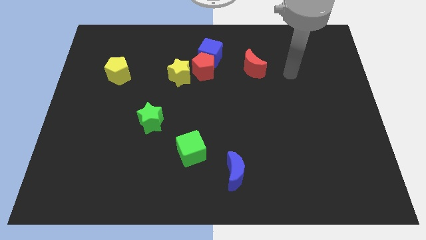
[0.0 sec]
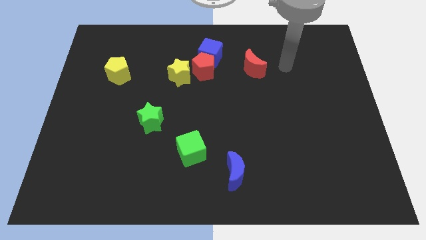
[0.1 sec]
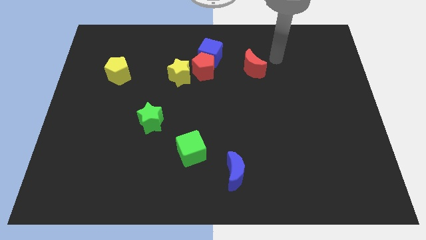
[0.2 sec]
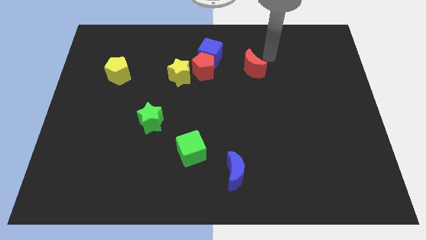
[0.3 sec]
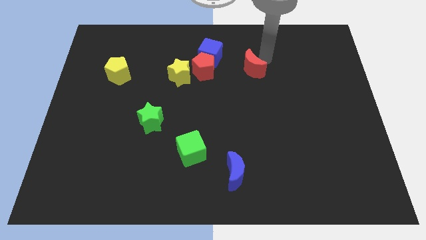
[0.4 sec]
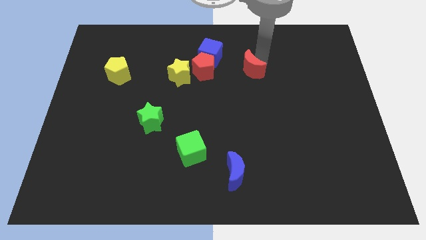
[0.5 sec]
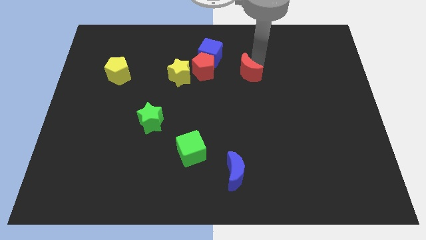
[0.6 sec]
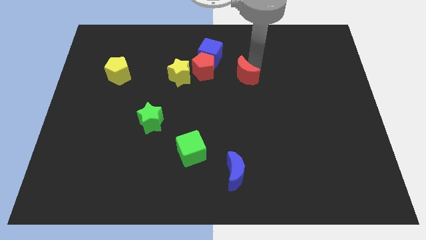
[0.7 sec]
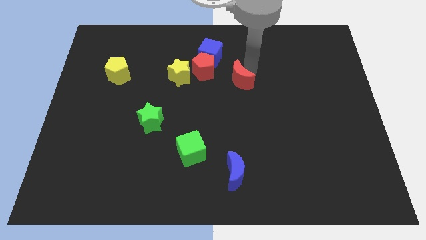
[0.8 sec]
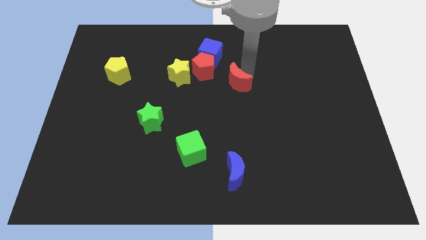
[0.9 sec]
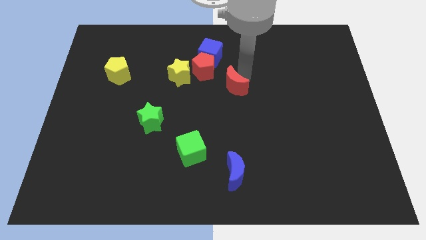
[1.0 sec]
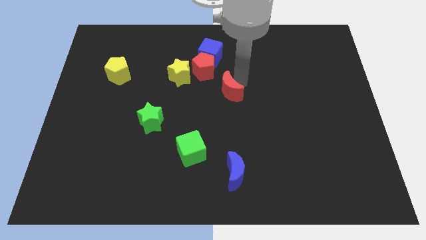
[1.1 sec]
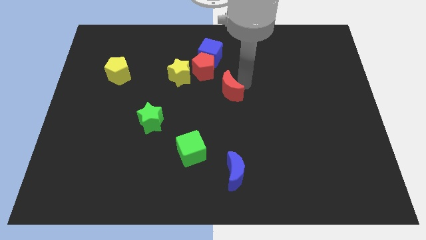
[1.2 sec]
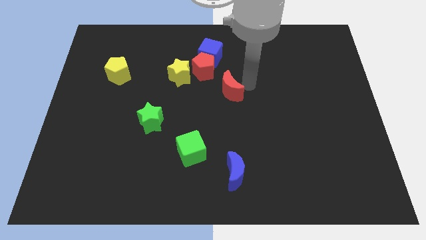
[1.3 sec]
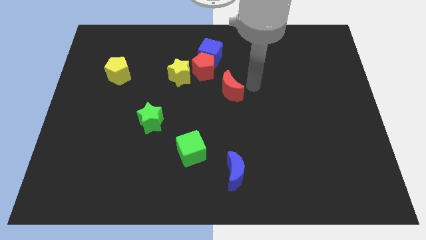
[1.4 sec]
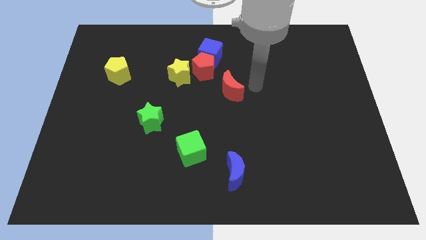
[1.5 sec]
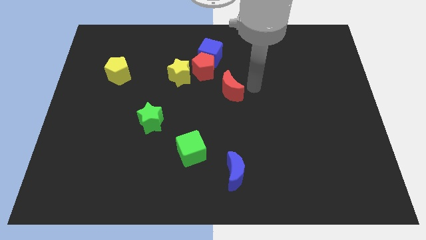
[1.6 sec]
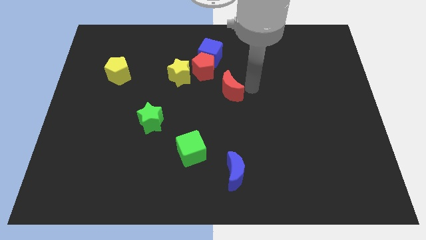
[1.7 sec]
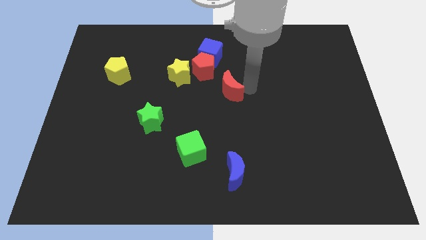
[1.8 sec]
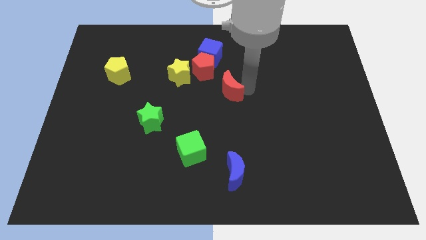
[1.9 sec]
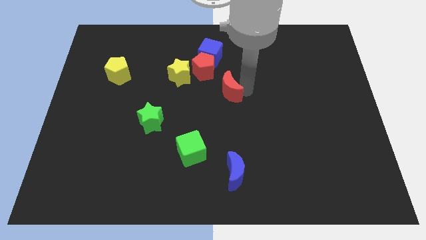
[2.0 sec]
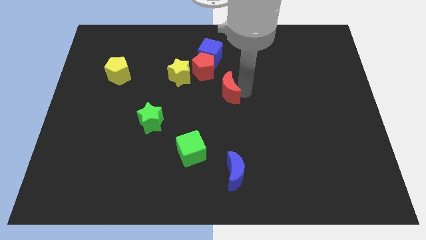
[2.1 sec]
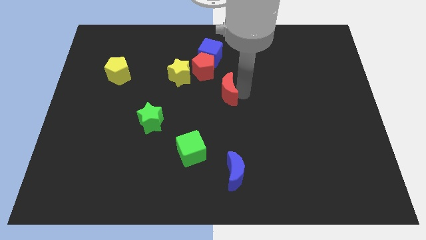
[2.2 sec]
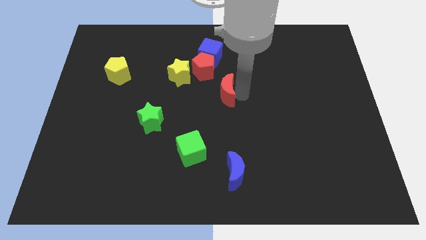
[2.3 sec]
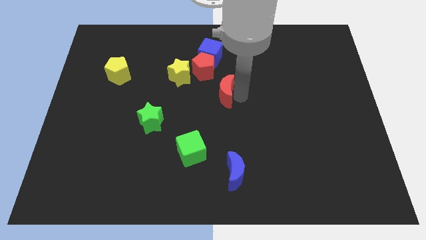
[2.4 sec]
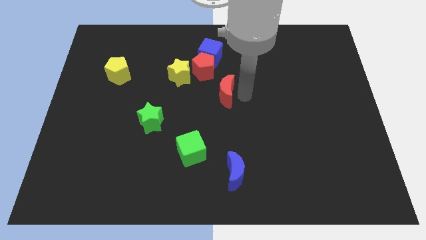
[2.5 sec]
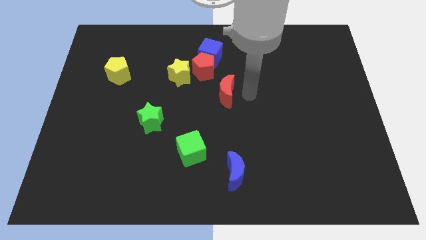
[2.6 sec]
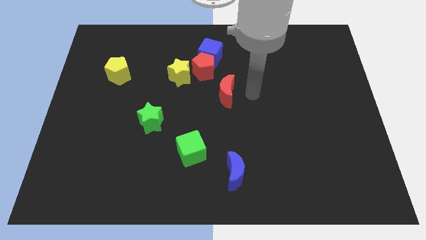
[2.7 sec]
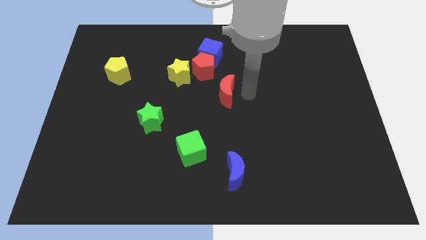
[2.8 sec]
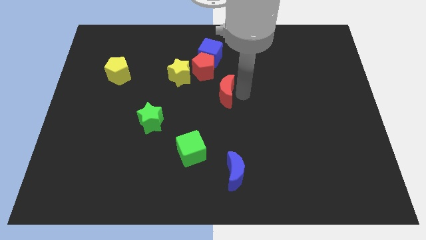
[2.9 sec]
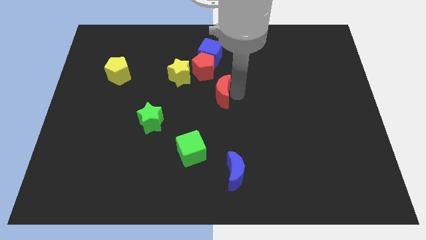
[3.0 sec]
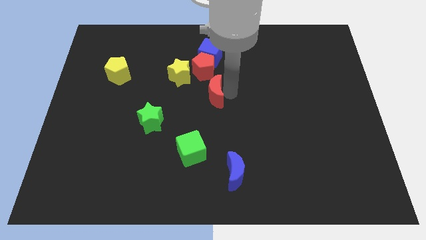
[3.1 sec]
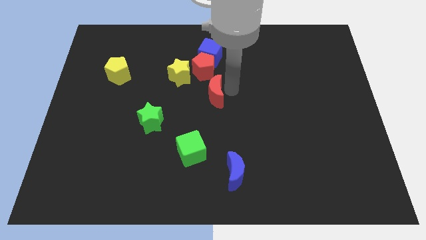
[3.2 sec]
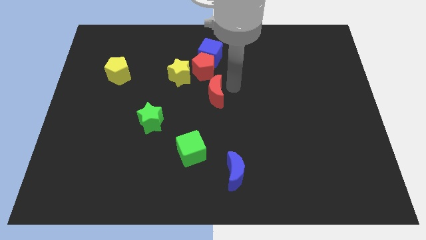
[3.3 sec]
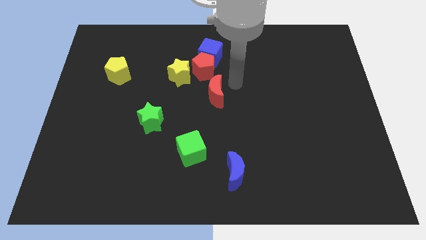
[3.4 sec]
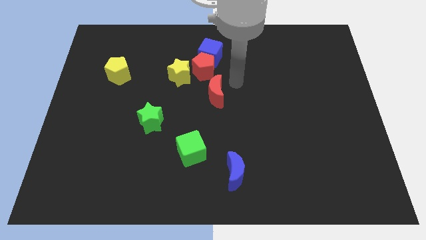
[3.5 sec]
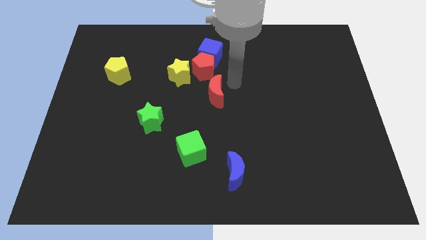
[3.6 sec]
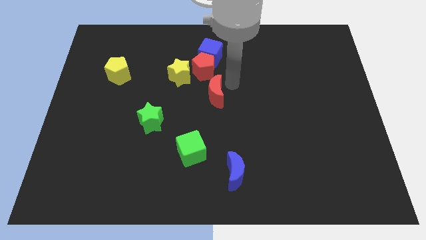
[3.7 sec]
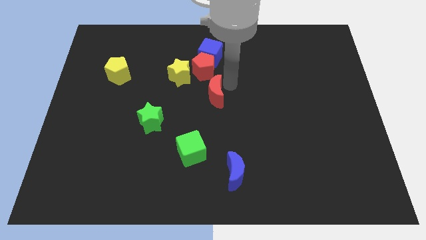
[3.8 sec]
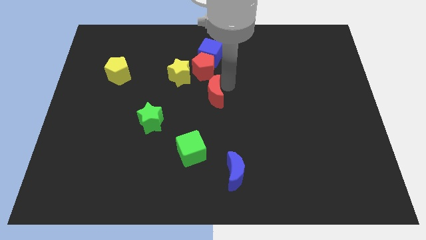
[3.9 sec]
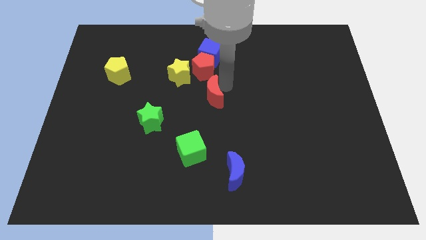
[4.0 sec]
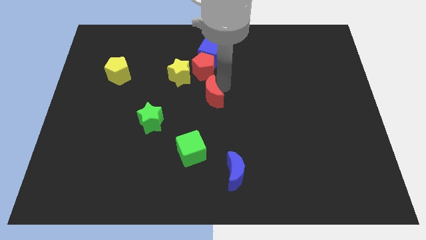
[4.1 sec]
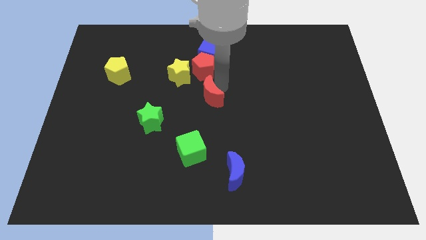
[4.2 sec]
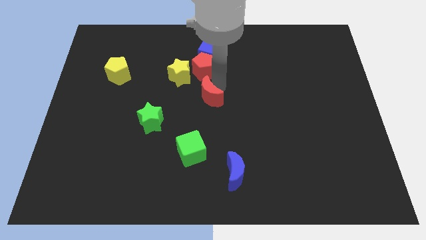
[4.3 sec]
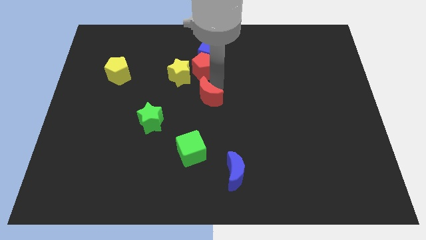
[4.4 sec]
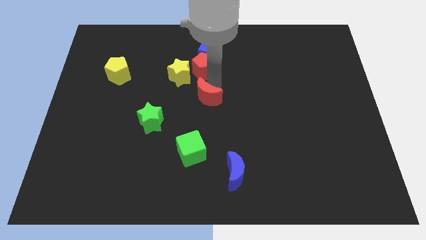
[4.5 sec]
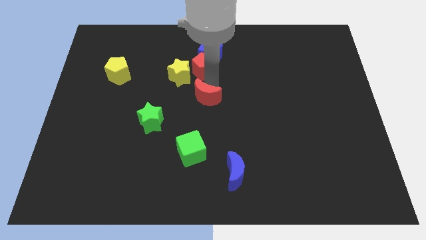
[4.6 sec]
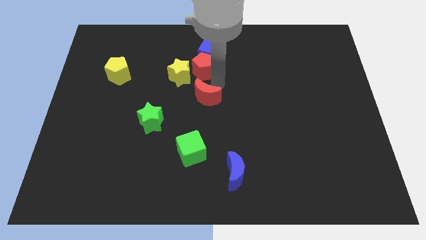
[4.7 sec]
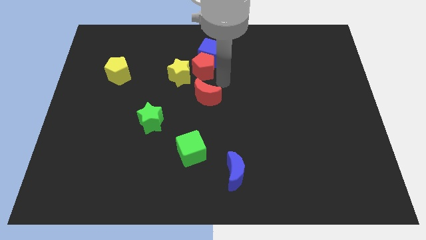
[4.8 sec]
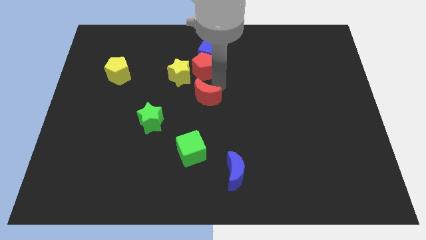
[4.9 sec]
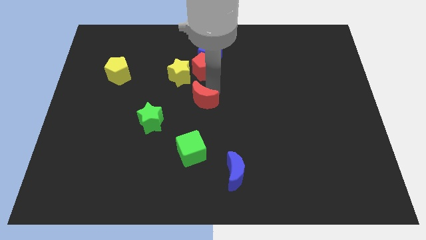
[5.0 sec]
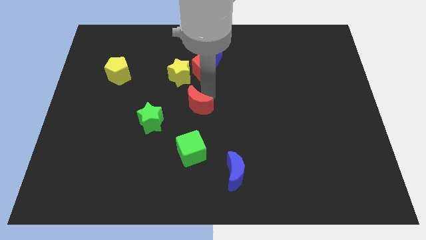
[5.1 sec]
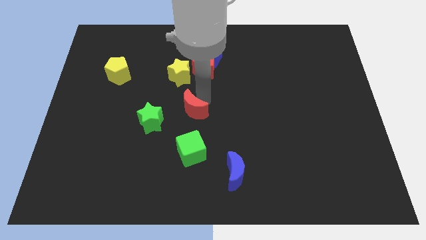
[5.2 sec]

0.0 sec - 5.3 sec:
push the red moon down and then to the left

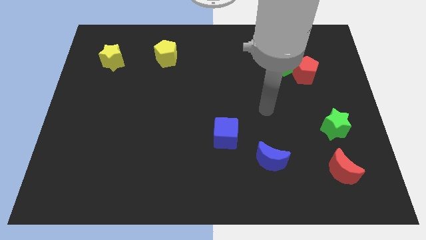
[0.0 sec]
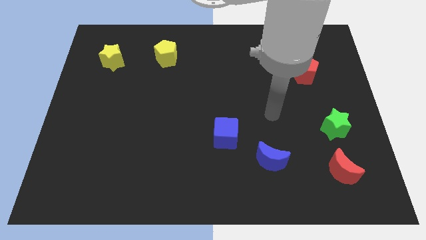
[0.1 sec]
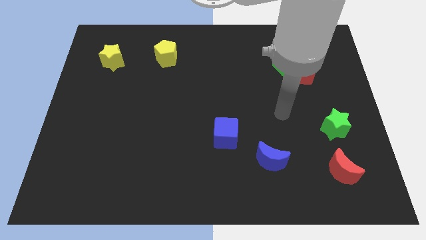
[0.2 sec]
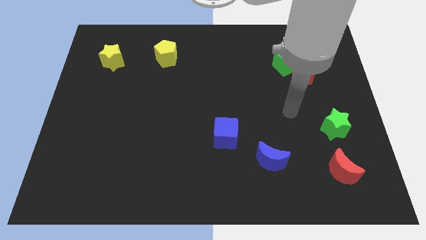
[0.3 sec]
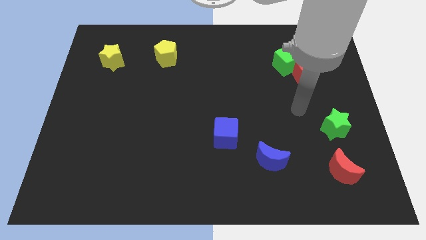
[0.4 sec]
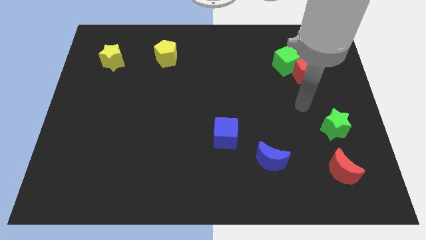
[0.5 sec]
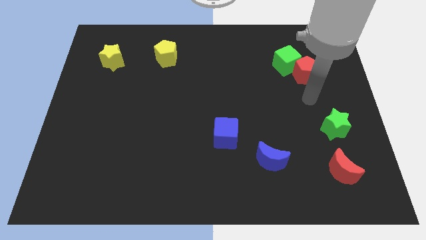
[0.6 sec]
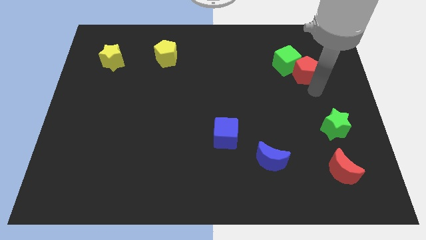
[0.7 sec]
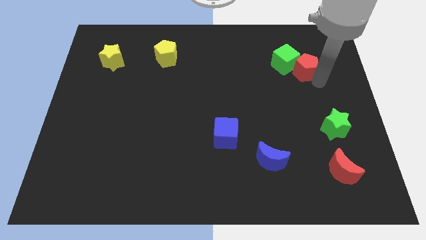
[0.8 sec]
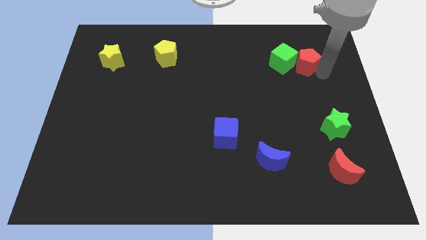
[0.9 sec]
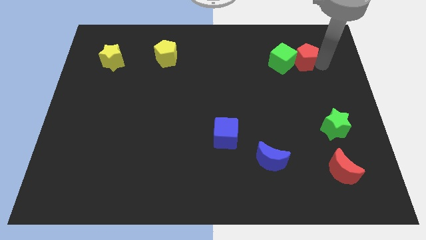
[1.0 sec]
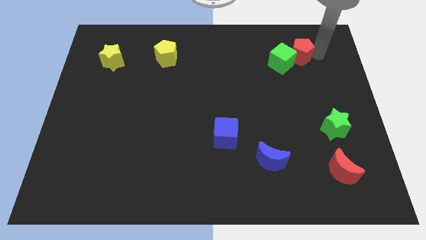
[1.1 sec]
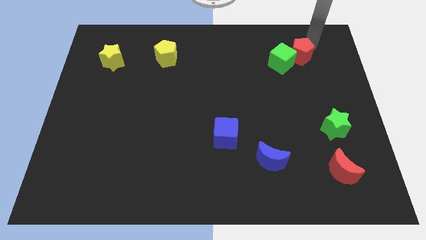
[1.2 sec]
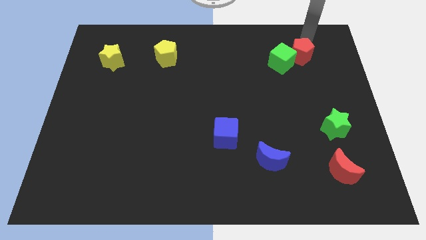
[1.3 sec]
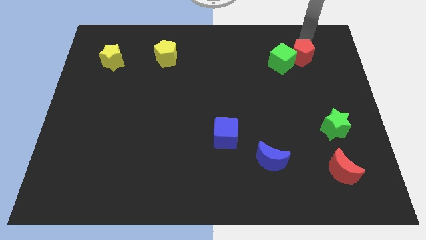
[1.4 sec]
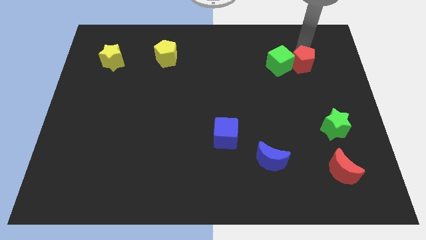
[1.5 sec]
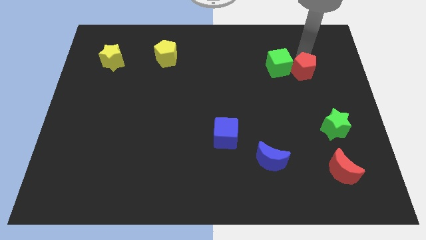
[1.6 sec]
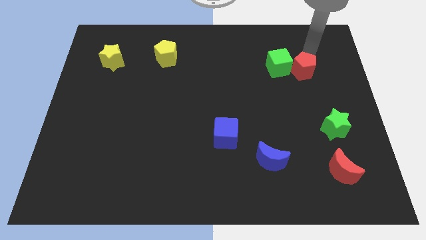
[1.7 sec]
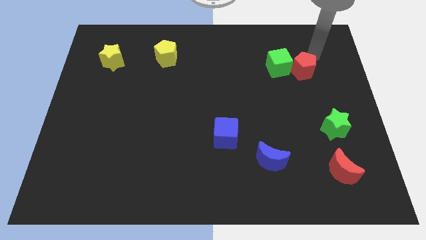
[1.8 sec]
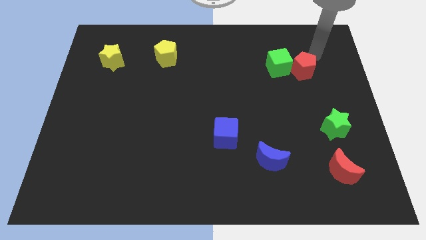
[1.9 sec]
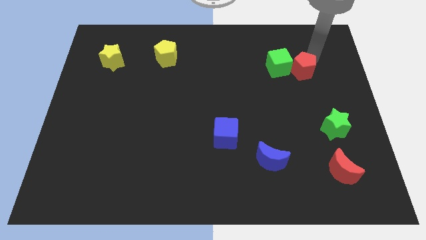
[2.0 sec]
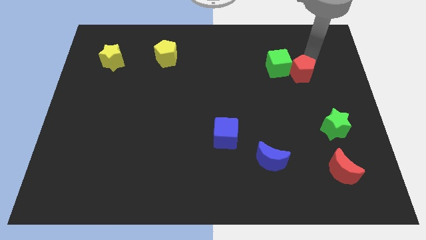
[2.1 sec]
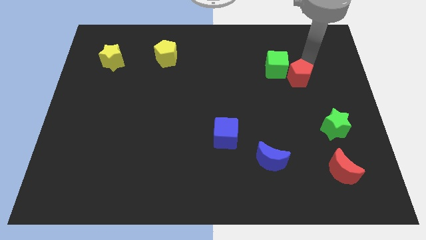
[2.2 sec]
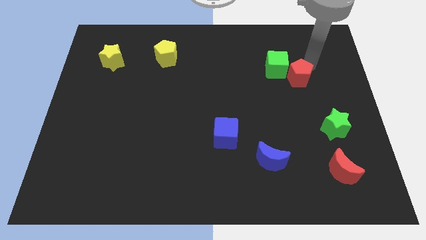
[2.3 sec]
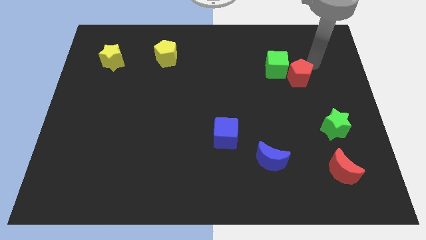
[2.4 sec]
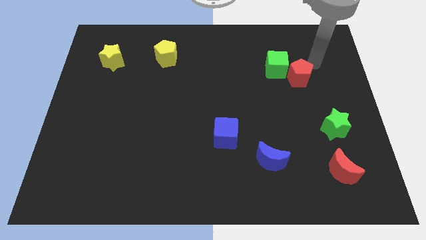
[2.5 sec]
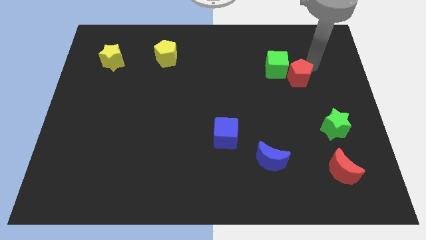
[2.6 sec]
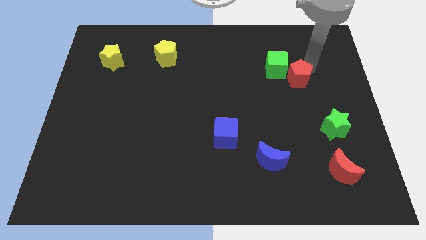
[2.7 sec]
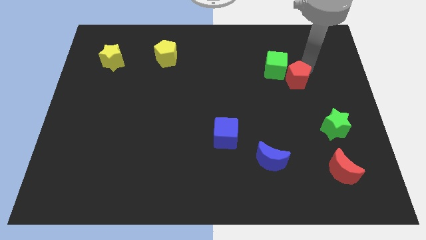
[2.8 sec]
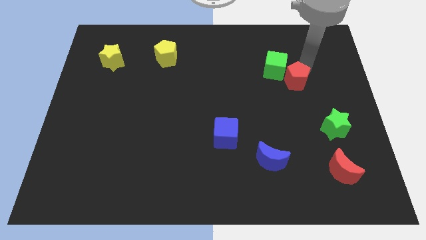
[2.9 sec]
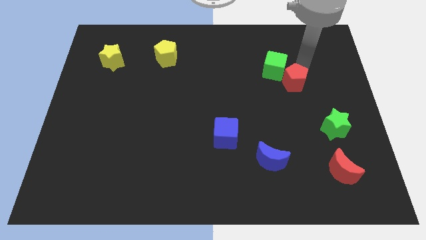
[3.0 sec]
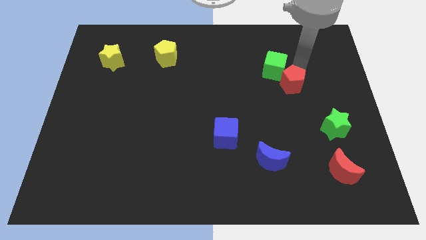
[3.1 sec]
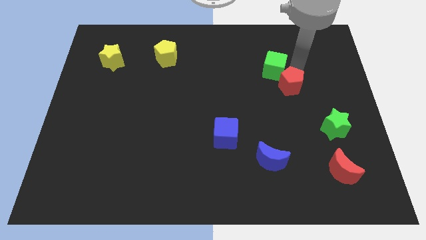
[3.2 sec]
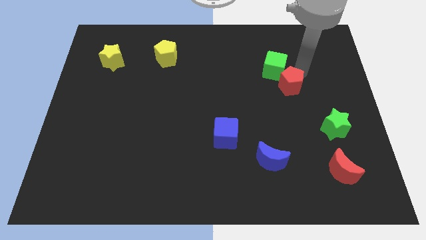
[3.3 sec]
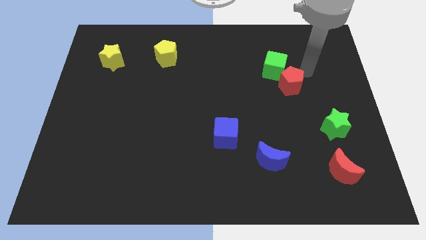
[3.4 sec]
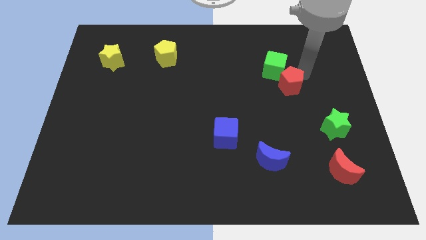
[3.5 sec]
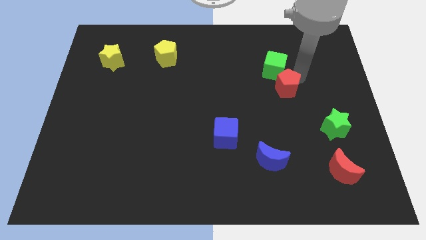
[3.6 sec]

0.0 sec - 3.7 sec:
slide the red pentagon down and then to the left a little bit
